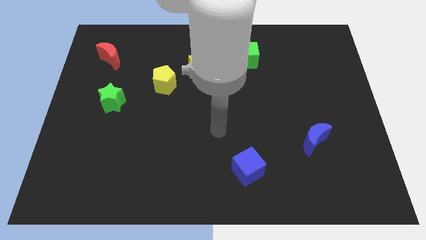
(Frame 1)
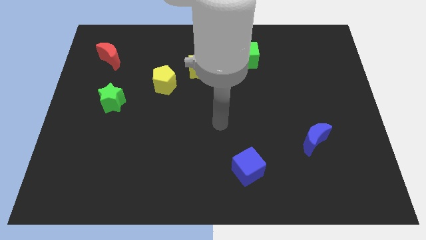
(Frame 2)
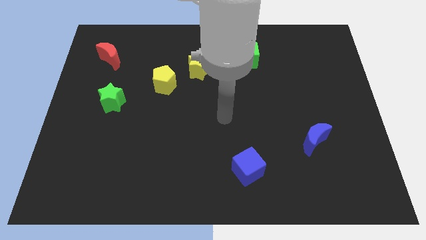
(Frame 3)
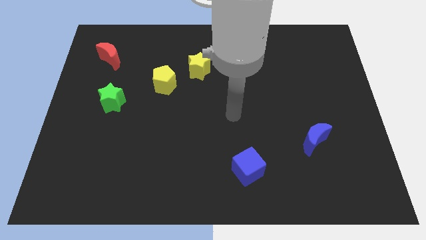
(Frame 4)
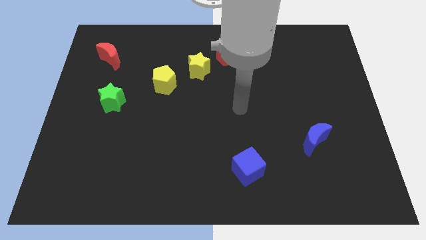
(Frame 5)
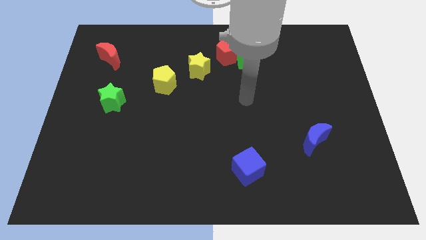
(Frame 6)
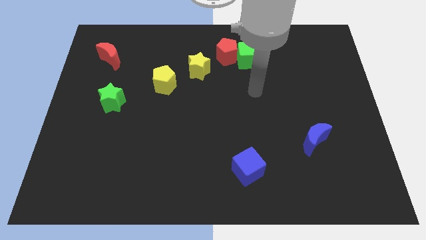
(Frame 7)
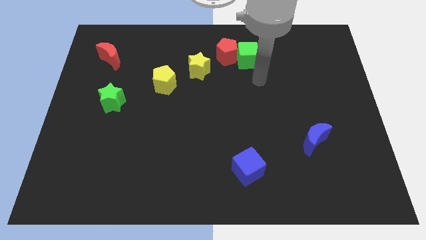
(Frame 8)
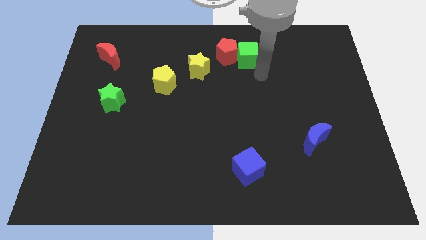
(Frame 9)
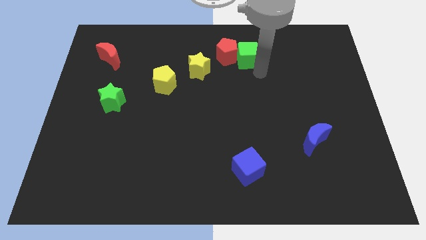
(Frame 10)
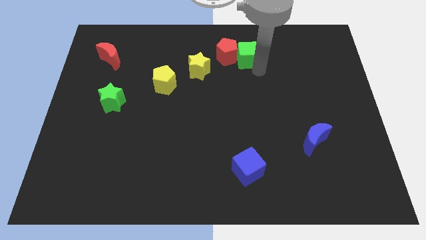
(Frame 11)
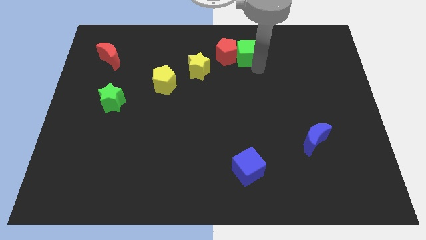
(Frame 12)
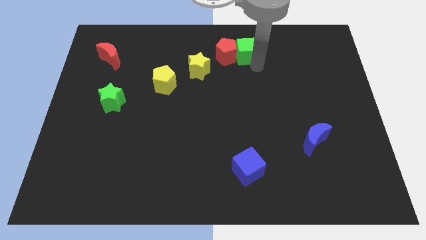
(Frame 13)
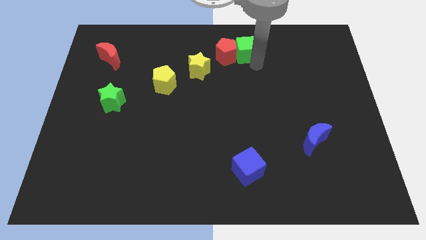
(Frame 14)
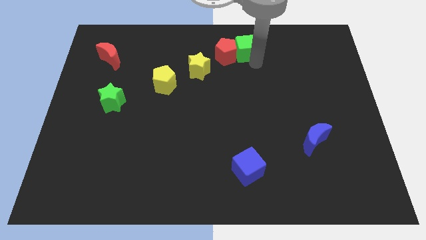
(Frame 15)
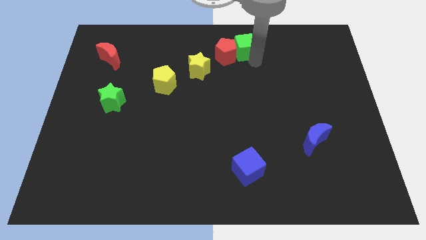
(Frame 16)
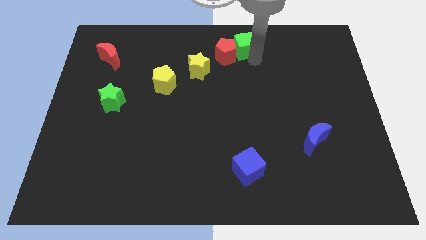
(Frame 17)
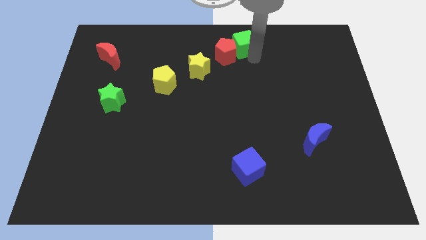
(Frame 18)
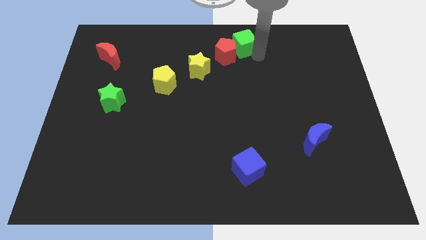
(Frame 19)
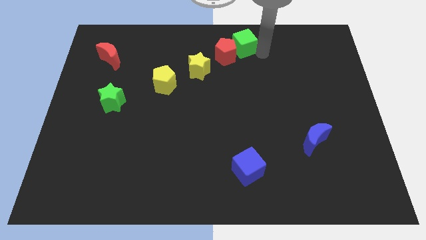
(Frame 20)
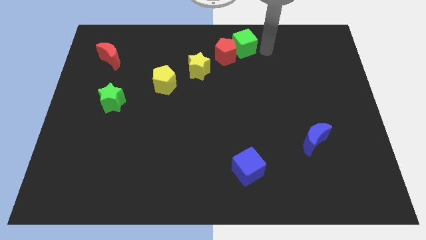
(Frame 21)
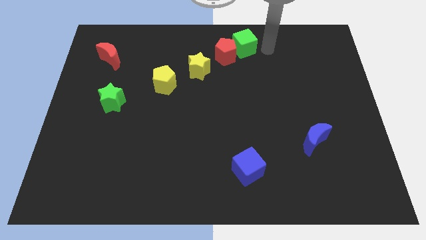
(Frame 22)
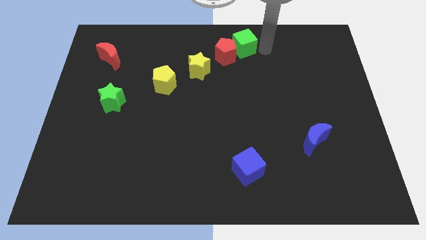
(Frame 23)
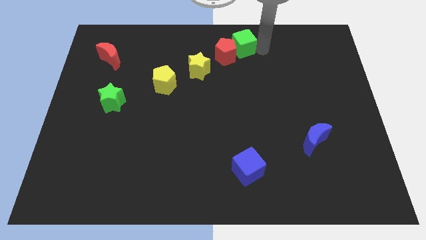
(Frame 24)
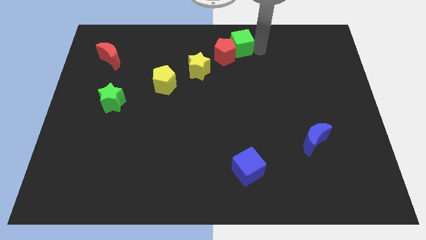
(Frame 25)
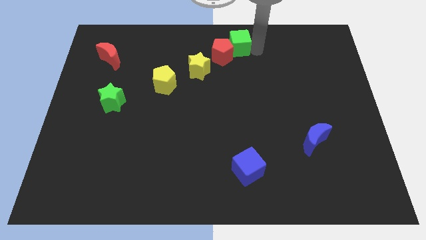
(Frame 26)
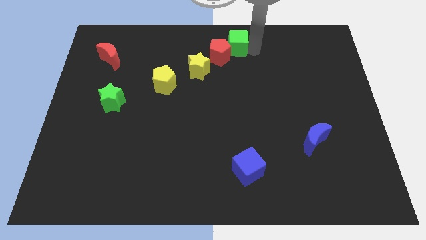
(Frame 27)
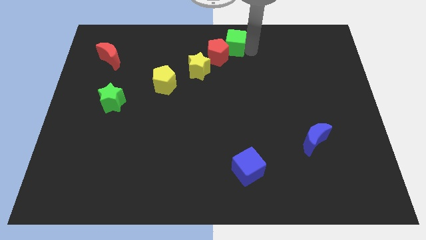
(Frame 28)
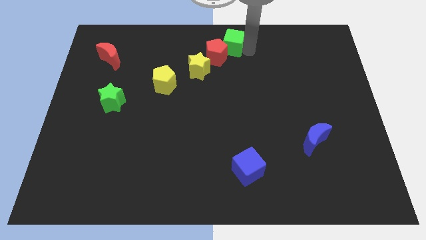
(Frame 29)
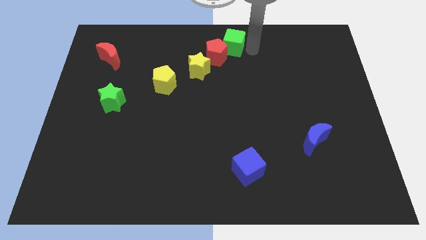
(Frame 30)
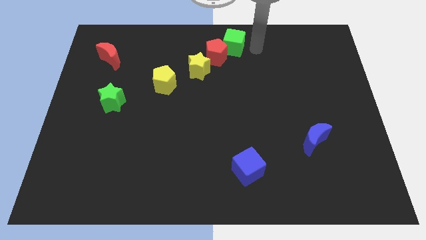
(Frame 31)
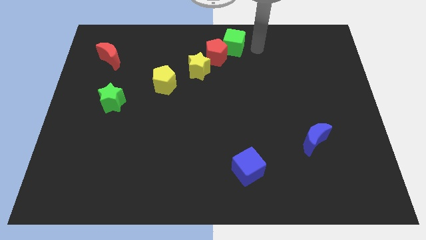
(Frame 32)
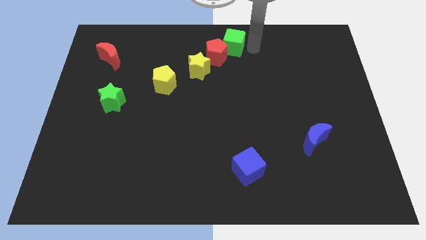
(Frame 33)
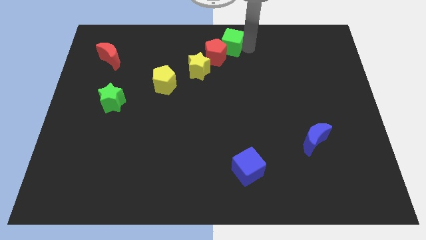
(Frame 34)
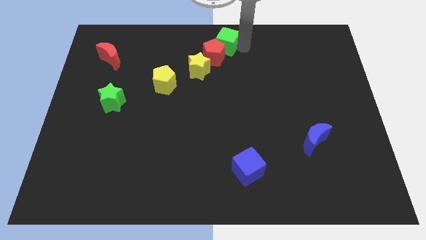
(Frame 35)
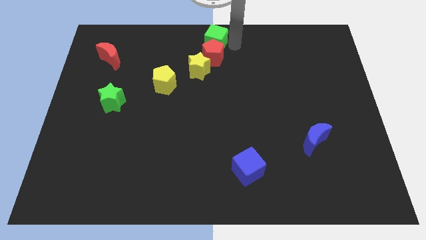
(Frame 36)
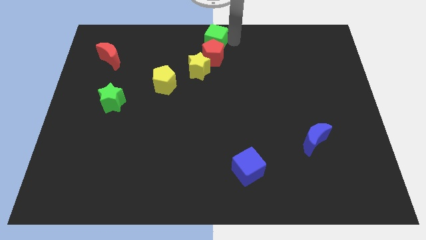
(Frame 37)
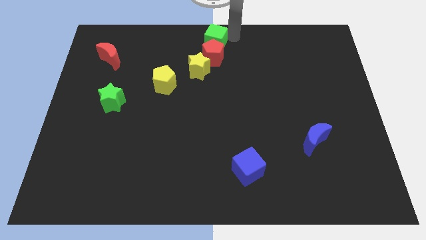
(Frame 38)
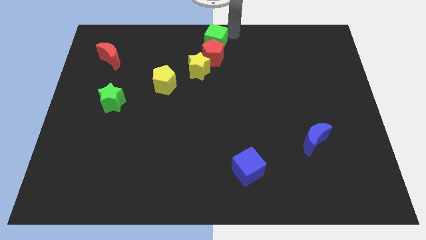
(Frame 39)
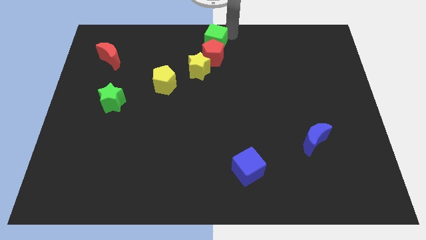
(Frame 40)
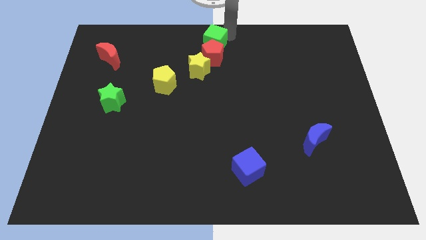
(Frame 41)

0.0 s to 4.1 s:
slightly slide the green cube to the left

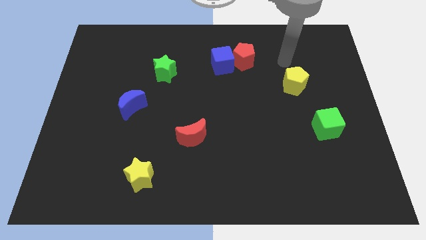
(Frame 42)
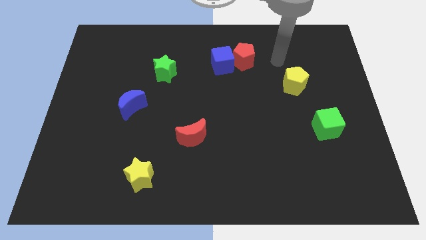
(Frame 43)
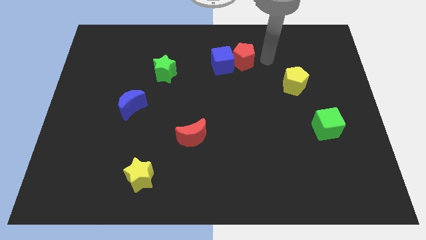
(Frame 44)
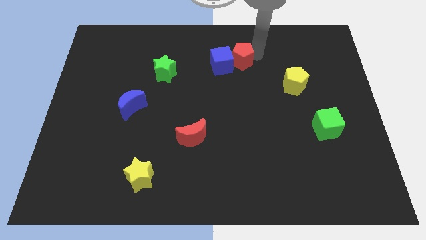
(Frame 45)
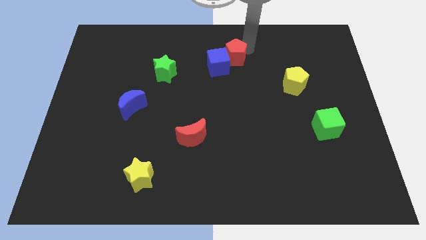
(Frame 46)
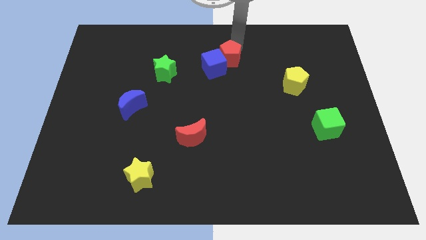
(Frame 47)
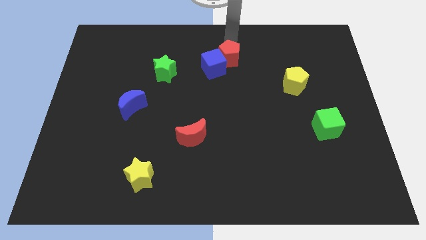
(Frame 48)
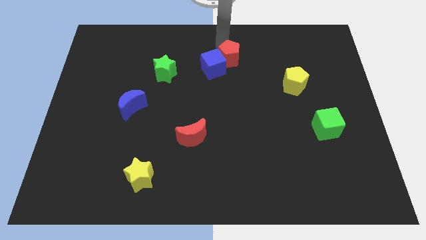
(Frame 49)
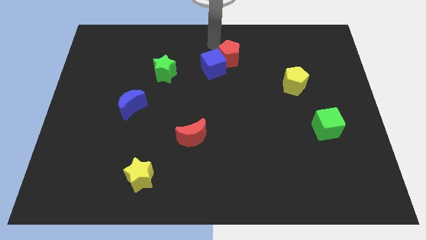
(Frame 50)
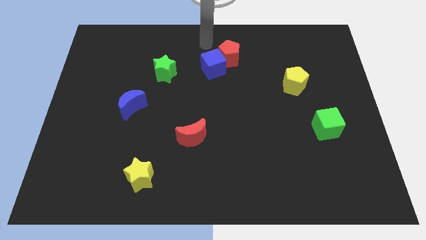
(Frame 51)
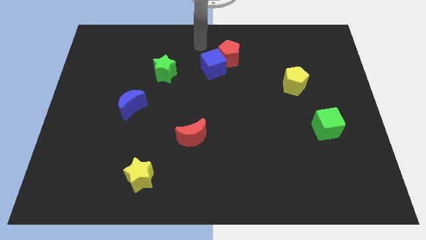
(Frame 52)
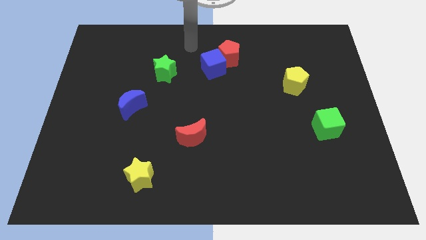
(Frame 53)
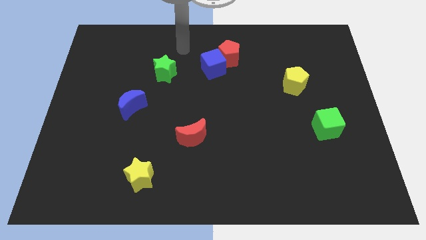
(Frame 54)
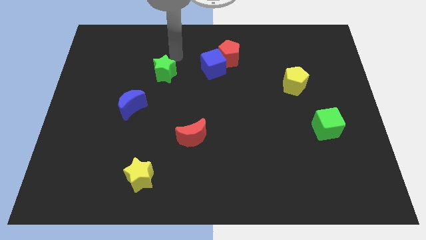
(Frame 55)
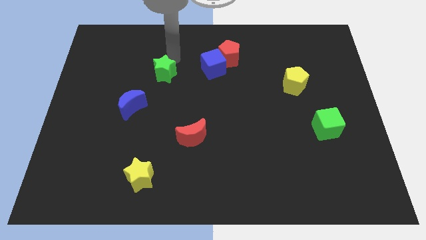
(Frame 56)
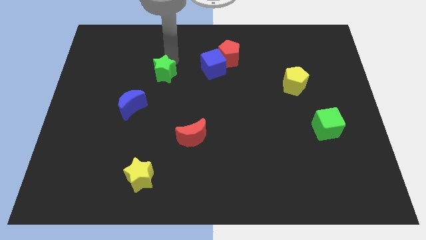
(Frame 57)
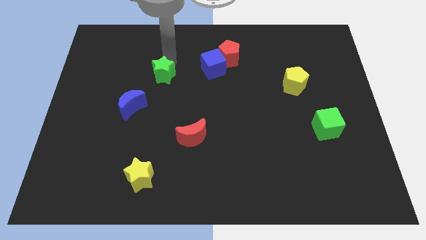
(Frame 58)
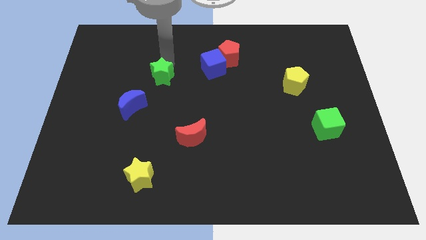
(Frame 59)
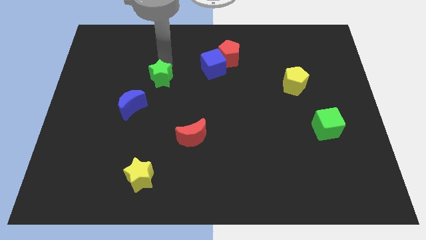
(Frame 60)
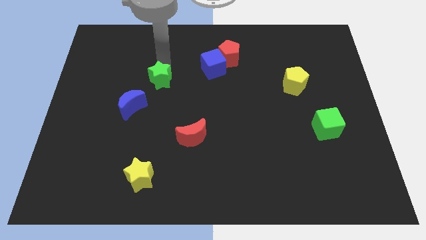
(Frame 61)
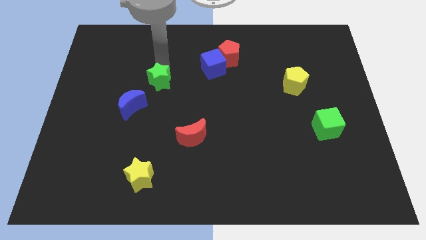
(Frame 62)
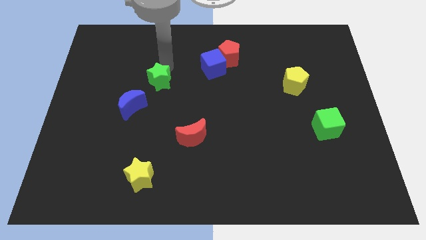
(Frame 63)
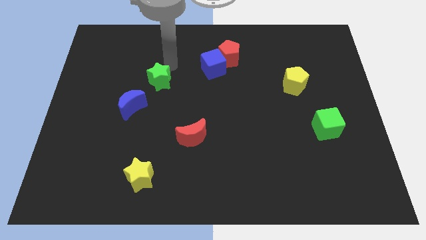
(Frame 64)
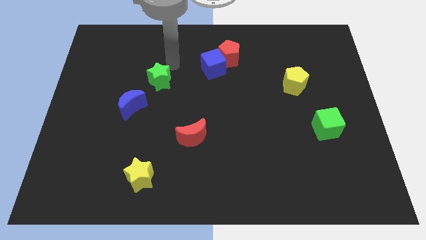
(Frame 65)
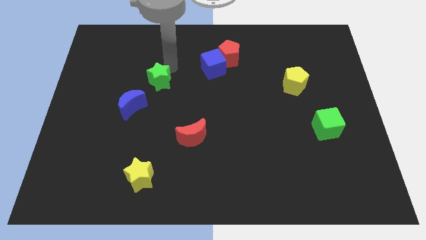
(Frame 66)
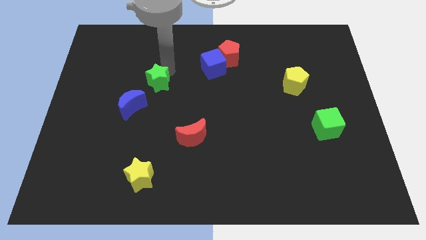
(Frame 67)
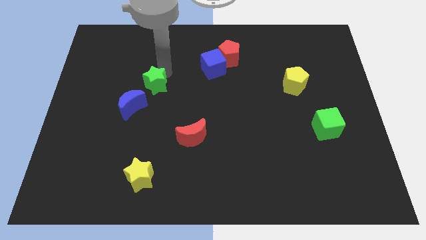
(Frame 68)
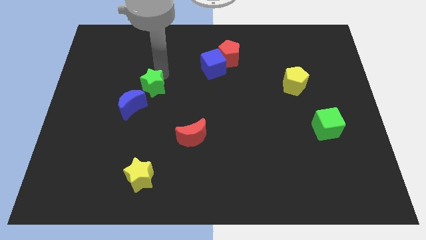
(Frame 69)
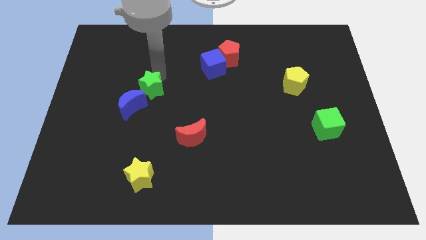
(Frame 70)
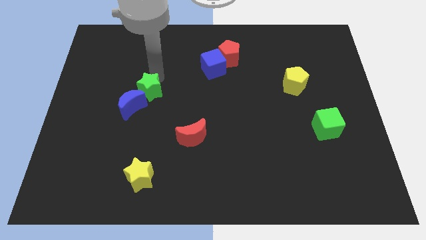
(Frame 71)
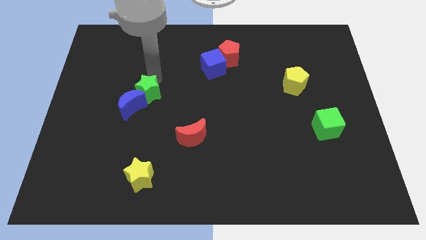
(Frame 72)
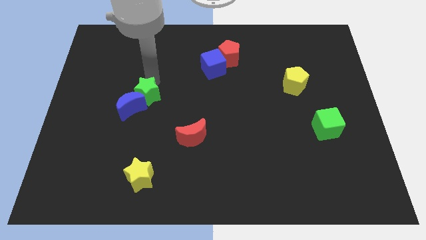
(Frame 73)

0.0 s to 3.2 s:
slightly move the green star downwards

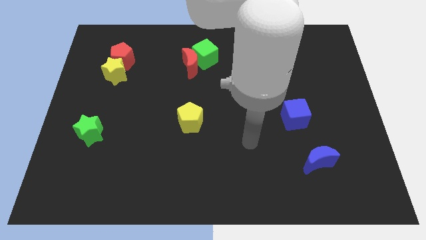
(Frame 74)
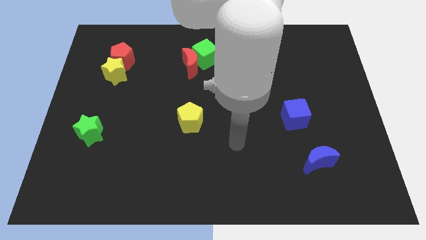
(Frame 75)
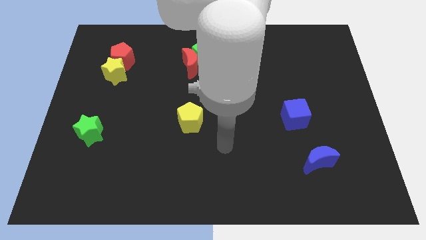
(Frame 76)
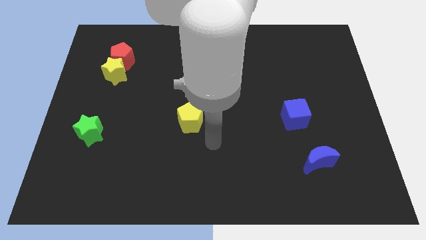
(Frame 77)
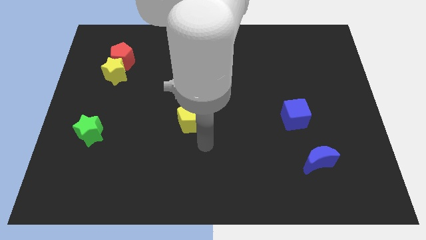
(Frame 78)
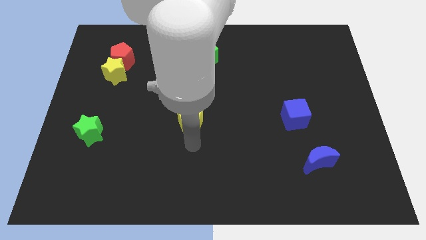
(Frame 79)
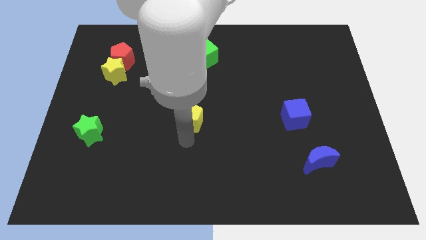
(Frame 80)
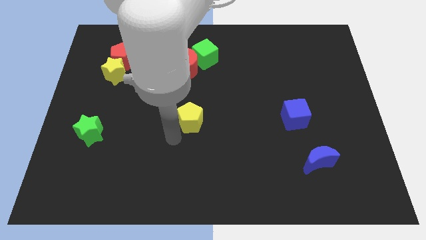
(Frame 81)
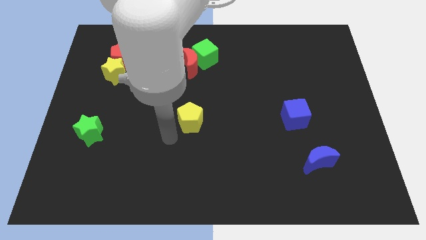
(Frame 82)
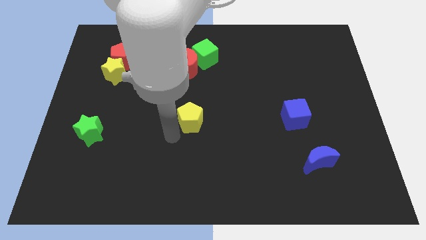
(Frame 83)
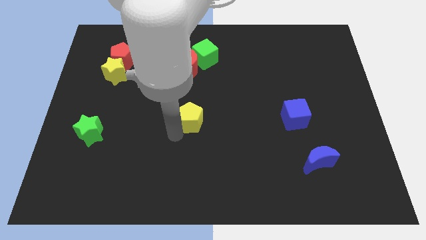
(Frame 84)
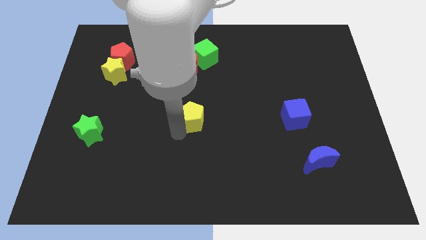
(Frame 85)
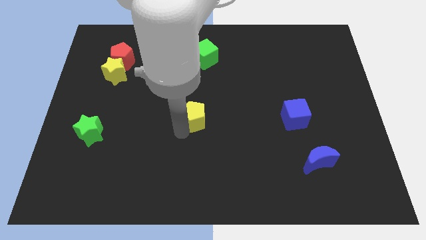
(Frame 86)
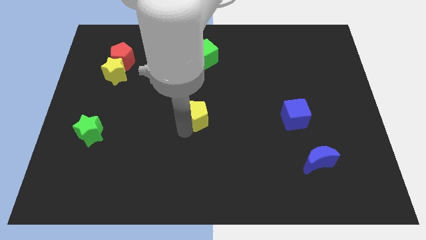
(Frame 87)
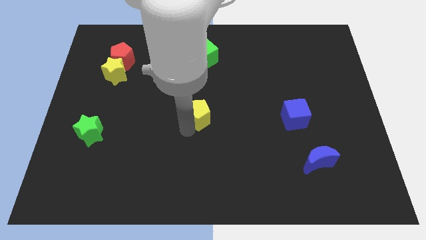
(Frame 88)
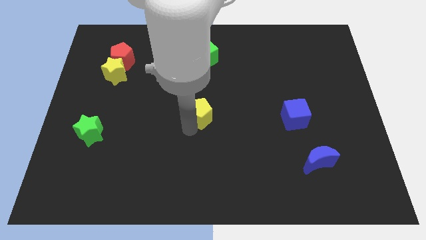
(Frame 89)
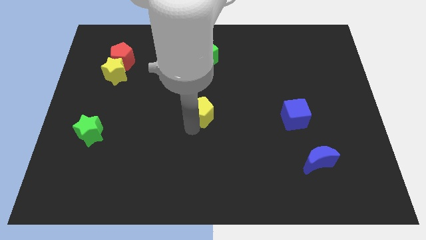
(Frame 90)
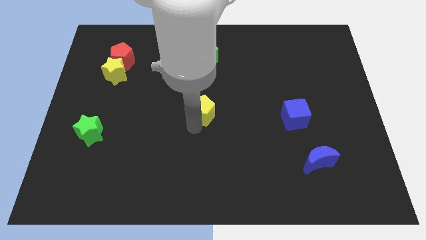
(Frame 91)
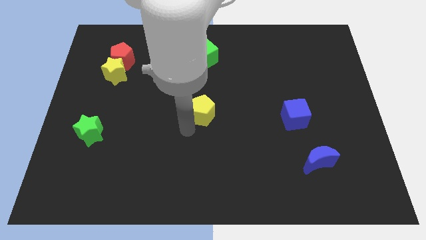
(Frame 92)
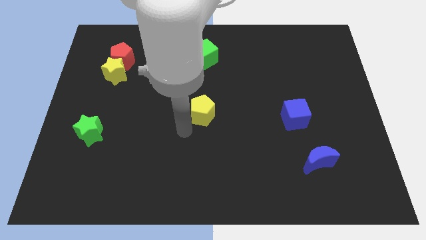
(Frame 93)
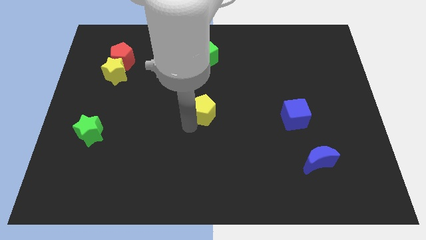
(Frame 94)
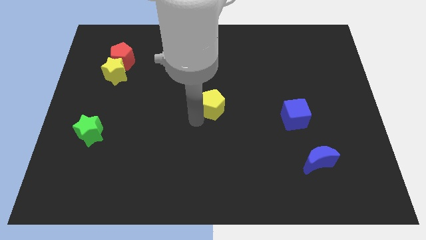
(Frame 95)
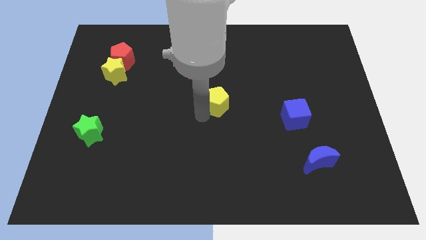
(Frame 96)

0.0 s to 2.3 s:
slightly push the yellow pentagon diagonally up and right
